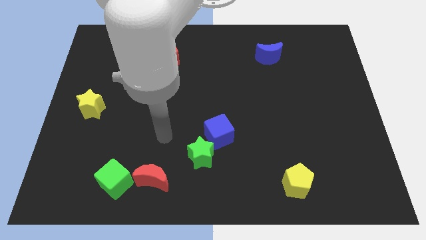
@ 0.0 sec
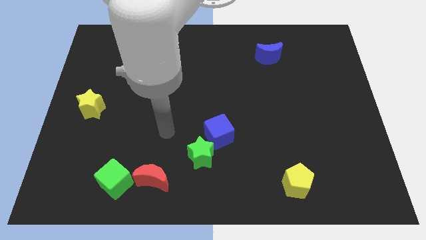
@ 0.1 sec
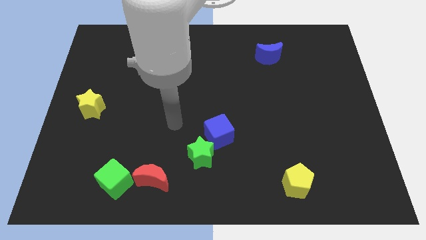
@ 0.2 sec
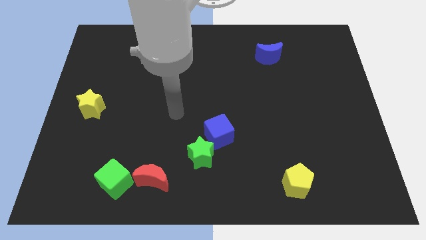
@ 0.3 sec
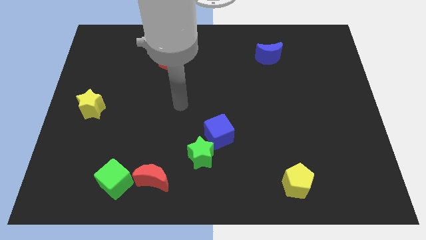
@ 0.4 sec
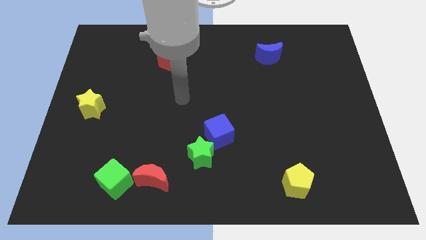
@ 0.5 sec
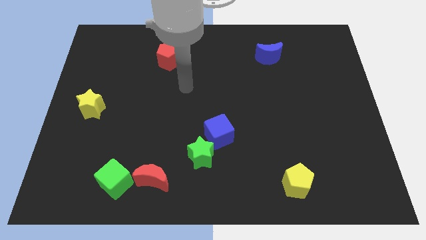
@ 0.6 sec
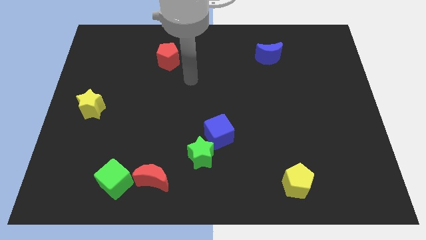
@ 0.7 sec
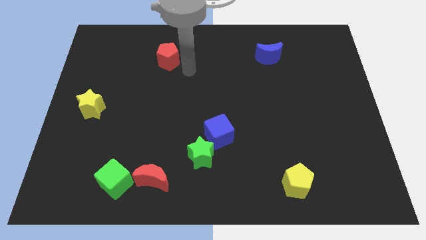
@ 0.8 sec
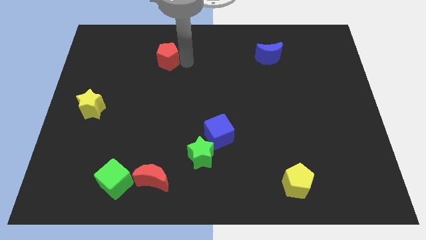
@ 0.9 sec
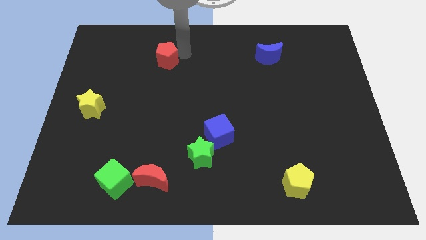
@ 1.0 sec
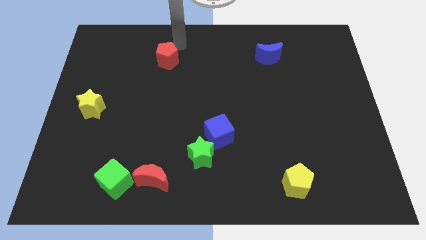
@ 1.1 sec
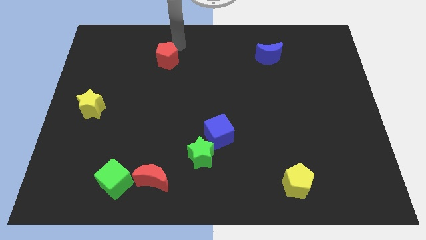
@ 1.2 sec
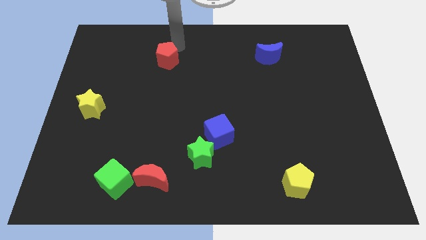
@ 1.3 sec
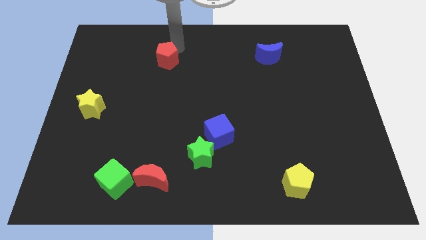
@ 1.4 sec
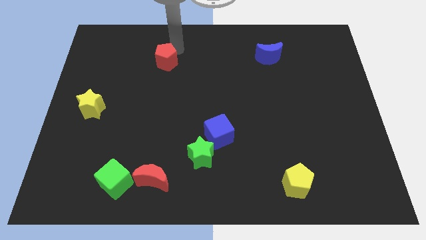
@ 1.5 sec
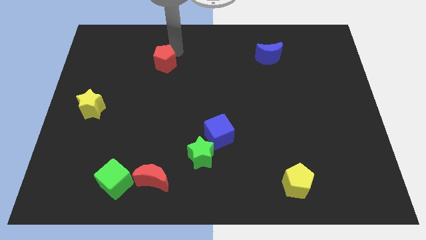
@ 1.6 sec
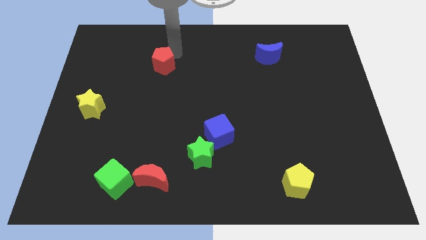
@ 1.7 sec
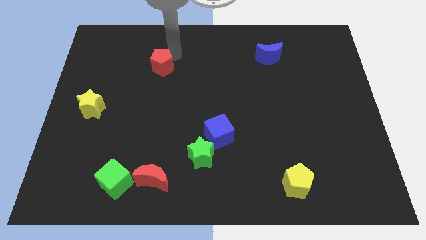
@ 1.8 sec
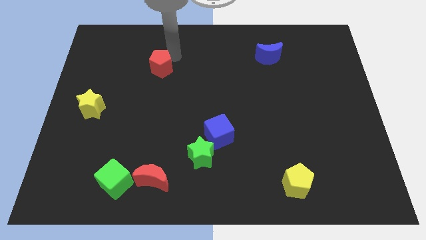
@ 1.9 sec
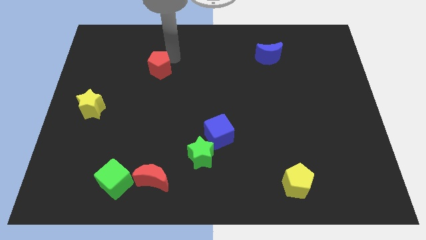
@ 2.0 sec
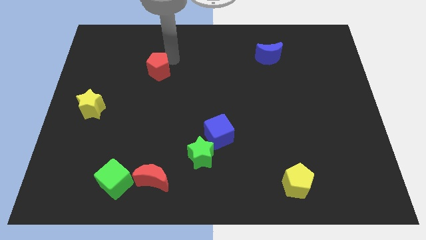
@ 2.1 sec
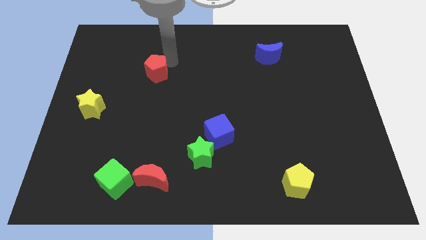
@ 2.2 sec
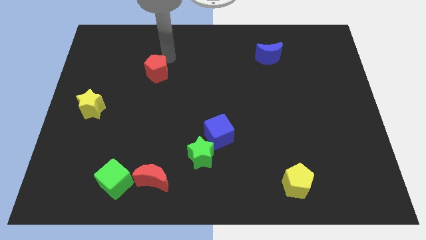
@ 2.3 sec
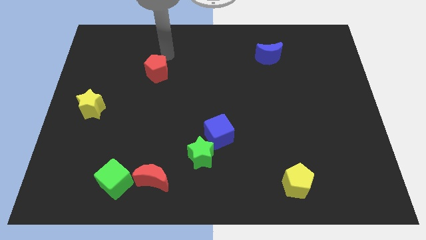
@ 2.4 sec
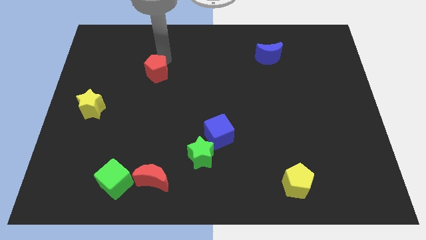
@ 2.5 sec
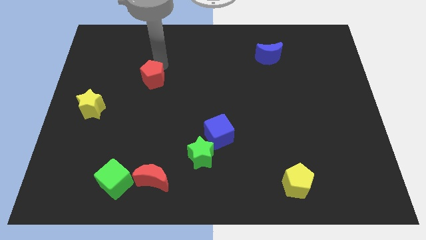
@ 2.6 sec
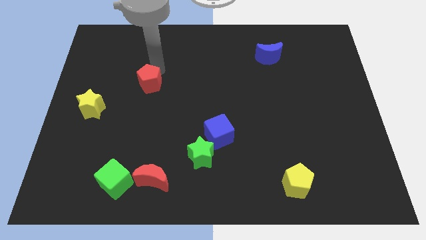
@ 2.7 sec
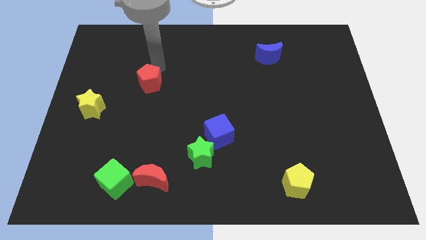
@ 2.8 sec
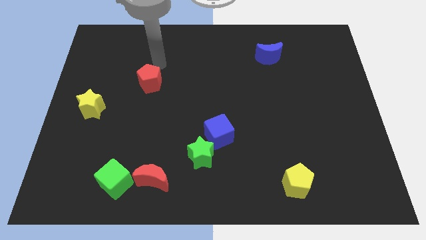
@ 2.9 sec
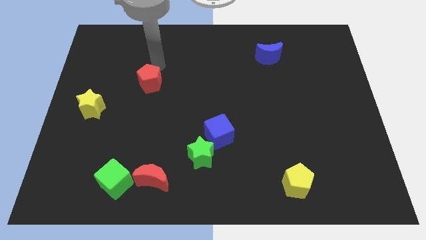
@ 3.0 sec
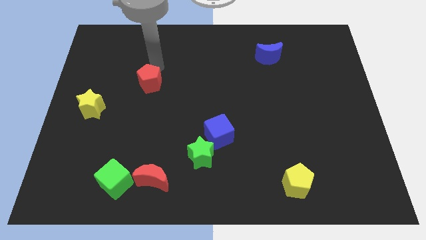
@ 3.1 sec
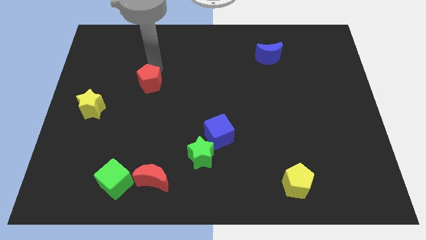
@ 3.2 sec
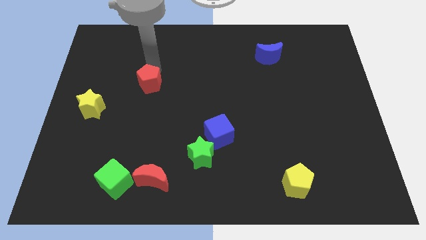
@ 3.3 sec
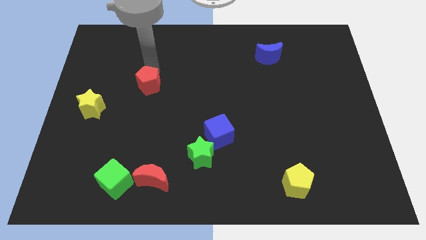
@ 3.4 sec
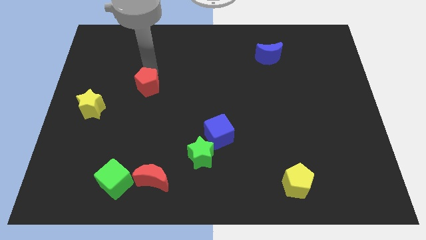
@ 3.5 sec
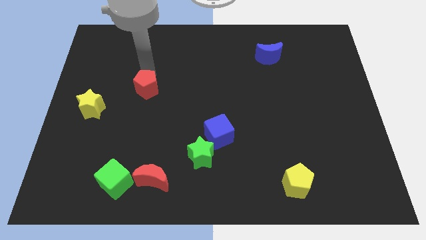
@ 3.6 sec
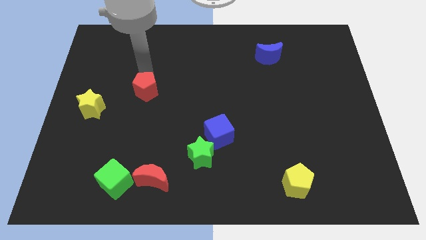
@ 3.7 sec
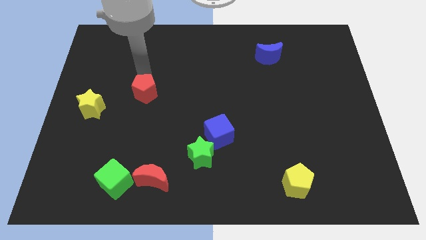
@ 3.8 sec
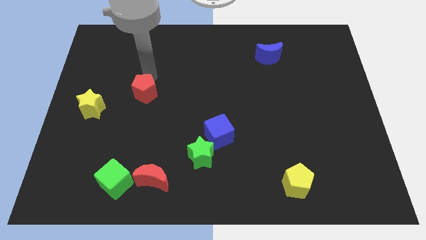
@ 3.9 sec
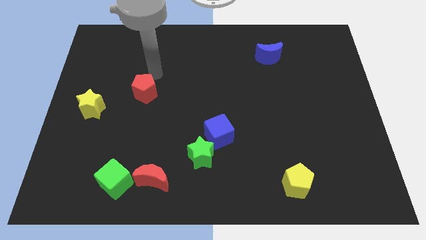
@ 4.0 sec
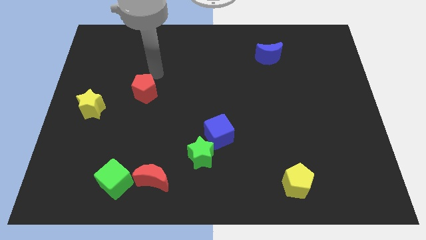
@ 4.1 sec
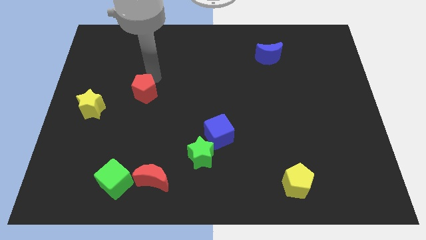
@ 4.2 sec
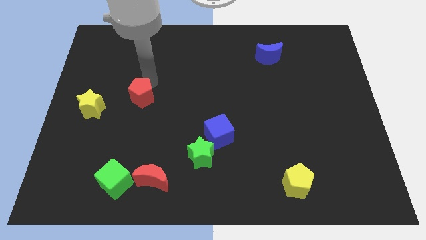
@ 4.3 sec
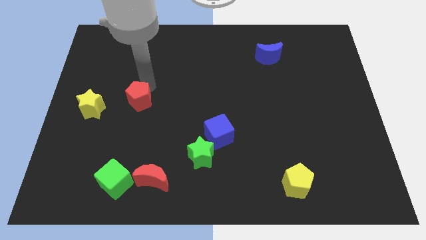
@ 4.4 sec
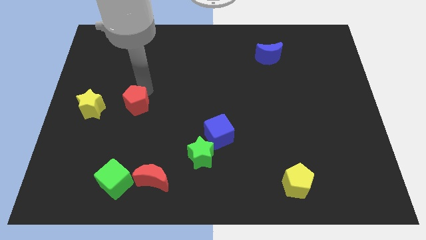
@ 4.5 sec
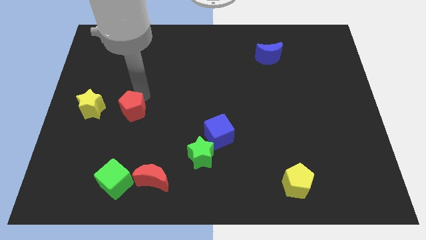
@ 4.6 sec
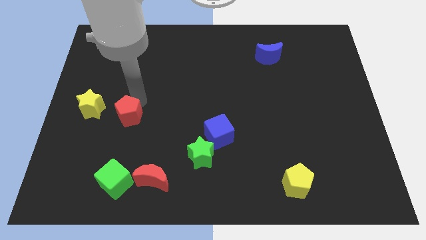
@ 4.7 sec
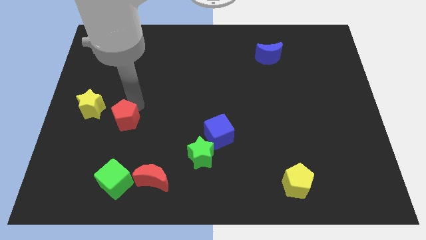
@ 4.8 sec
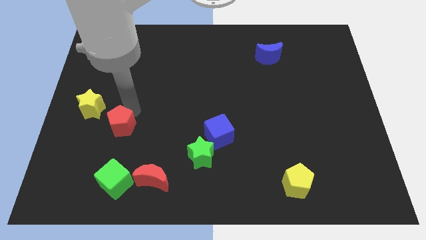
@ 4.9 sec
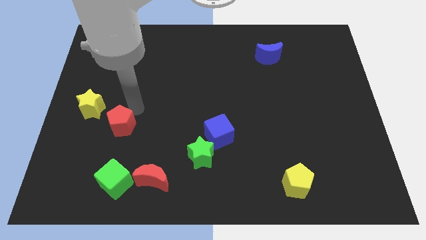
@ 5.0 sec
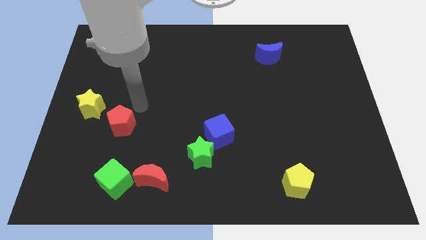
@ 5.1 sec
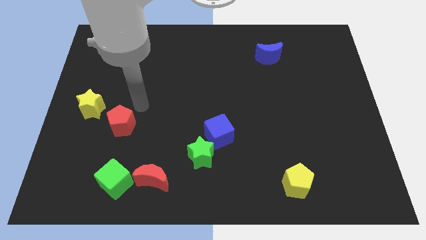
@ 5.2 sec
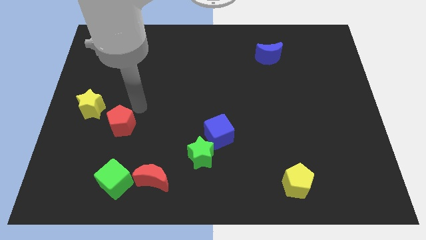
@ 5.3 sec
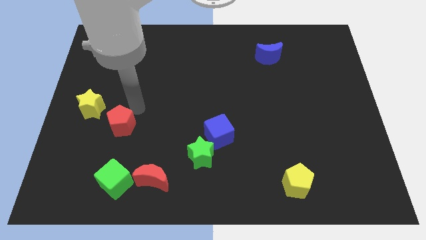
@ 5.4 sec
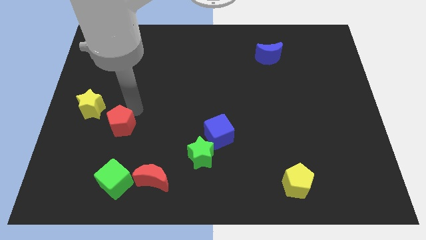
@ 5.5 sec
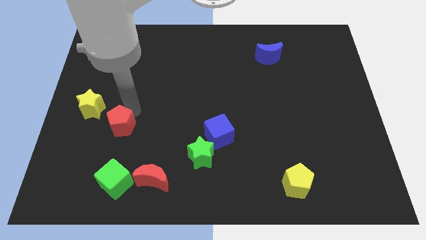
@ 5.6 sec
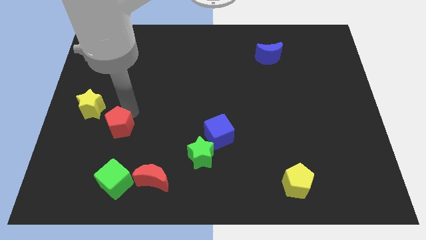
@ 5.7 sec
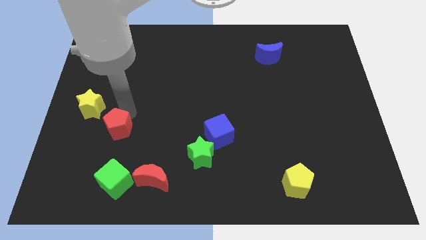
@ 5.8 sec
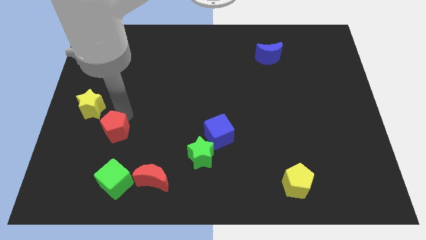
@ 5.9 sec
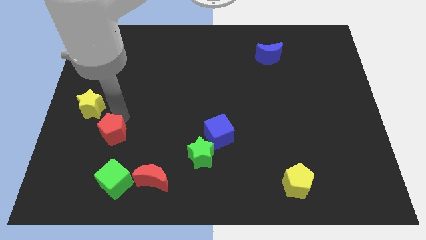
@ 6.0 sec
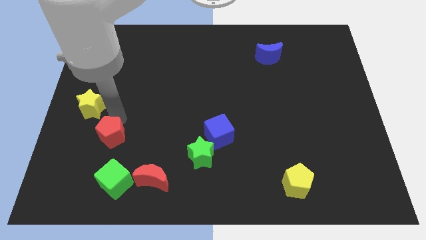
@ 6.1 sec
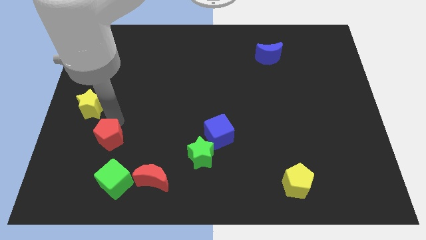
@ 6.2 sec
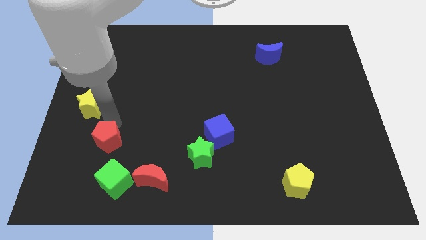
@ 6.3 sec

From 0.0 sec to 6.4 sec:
move the red pentagon diagonally up and to the left of the green cube

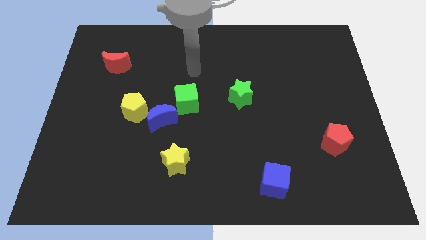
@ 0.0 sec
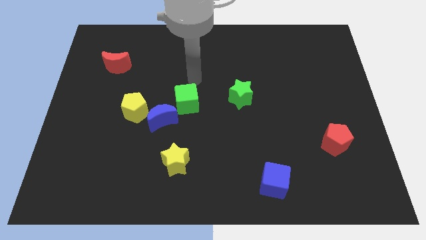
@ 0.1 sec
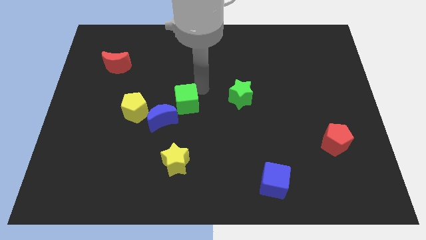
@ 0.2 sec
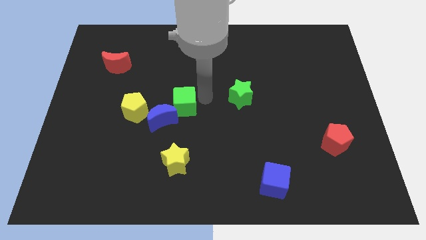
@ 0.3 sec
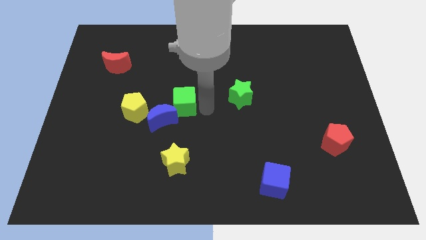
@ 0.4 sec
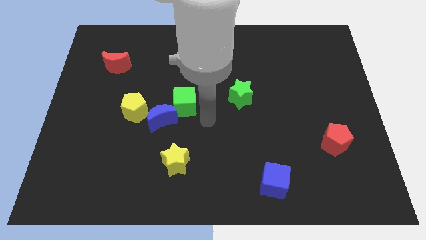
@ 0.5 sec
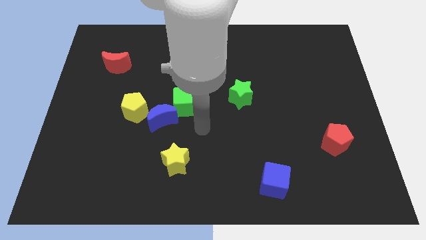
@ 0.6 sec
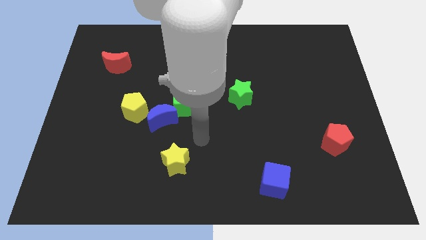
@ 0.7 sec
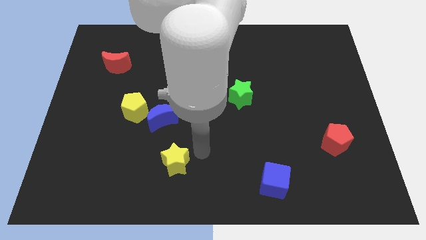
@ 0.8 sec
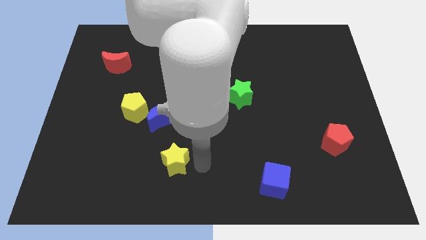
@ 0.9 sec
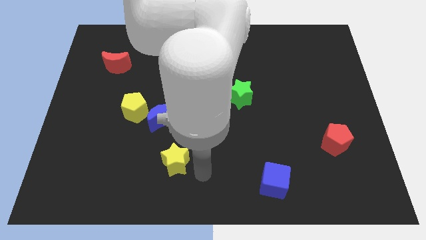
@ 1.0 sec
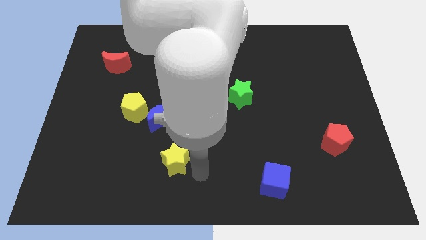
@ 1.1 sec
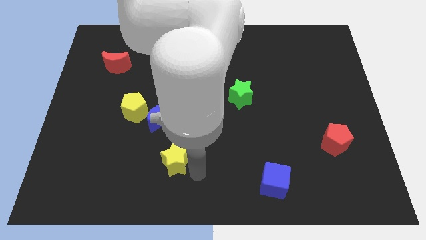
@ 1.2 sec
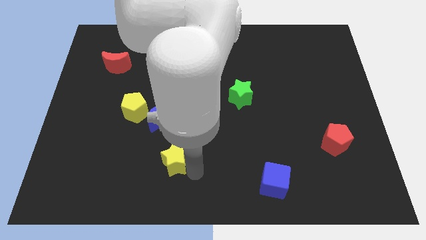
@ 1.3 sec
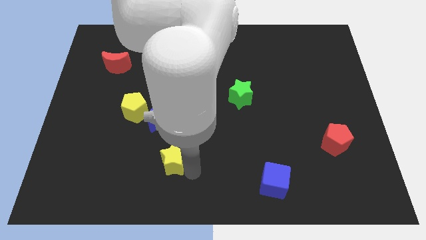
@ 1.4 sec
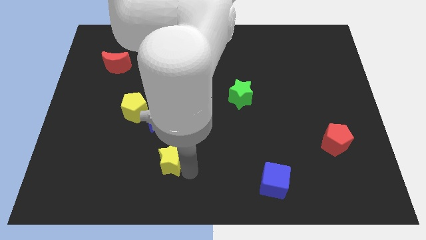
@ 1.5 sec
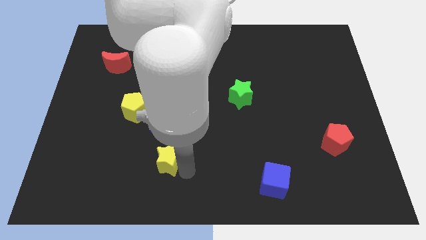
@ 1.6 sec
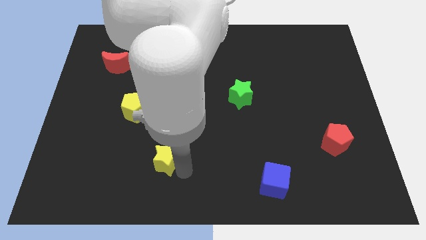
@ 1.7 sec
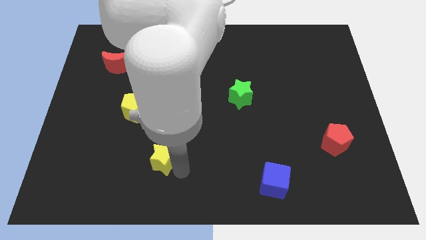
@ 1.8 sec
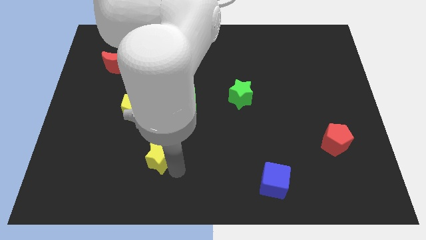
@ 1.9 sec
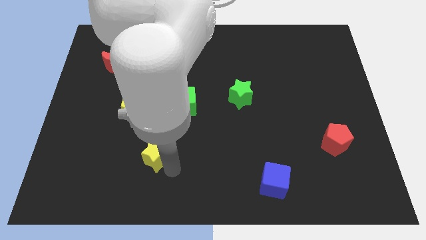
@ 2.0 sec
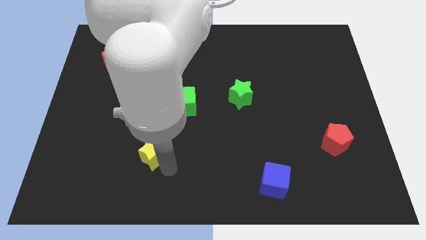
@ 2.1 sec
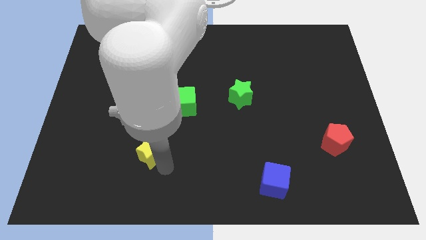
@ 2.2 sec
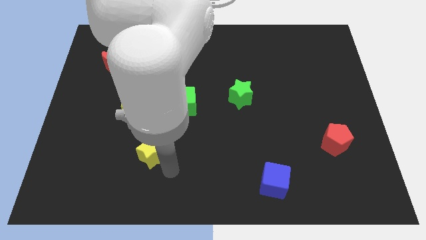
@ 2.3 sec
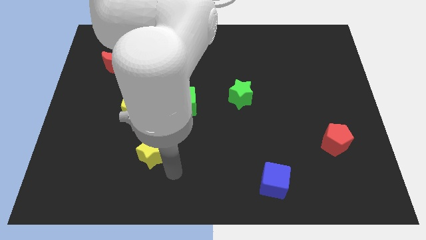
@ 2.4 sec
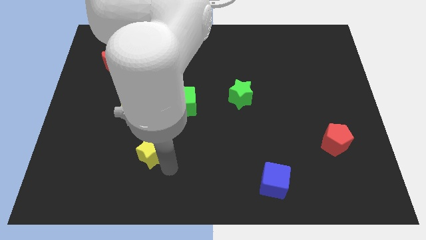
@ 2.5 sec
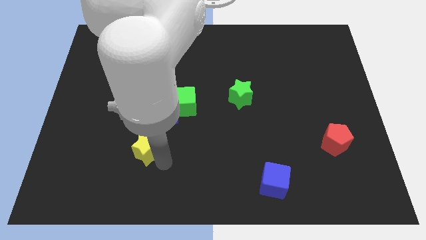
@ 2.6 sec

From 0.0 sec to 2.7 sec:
move the yellow star to the bottom left of the blue moon
